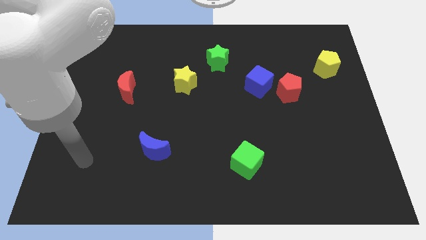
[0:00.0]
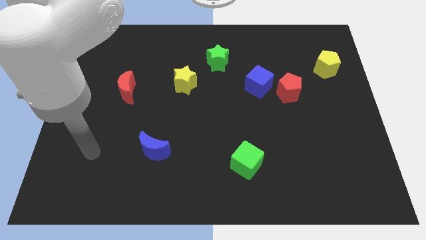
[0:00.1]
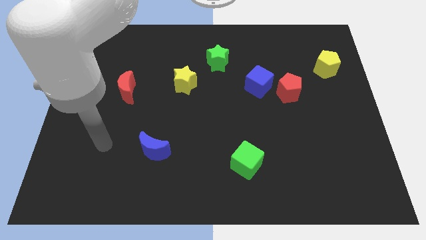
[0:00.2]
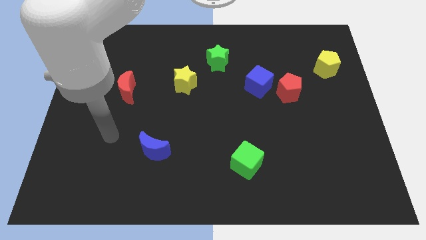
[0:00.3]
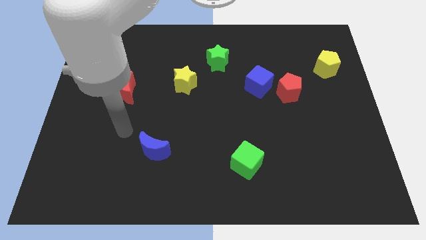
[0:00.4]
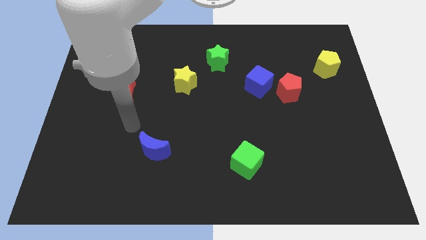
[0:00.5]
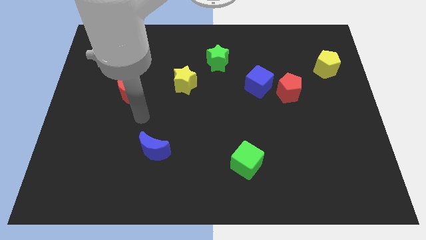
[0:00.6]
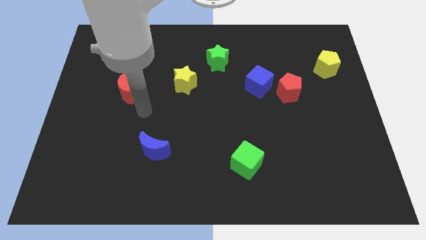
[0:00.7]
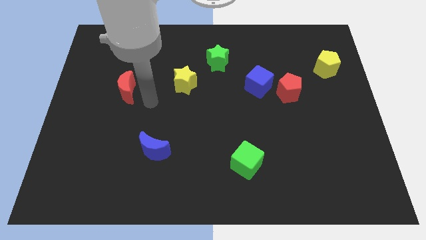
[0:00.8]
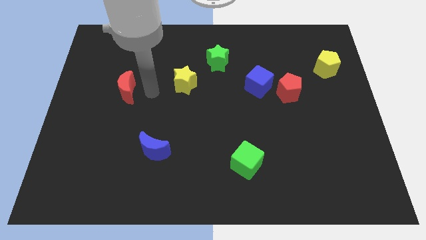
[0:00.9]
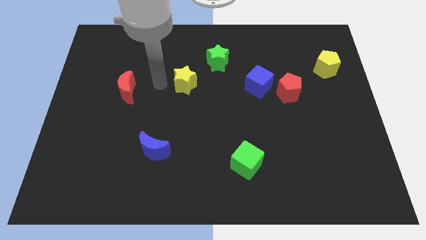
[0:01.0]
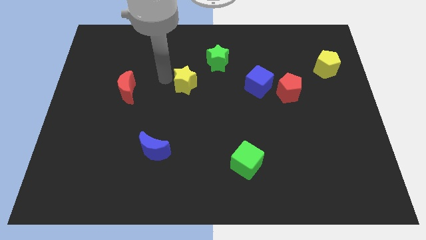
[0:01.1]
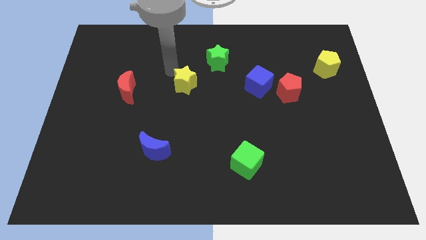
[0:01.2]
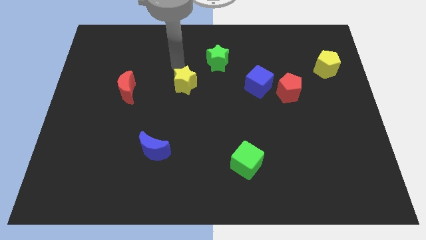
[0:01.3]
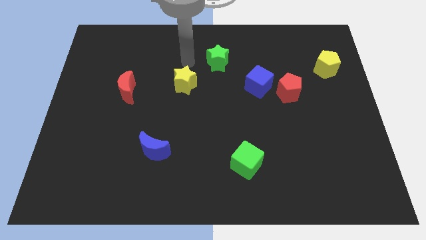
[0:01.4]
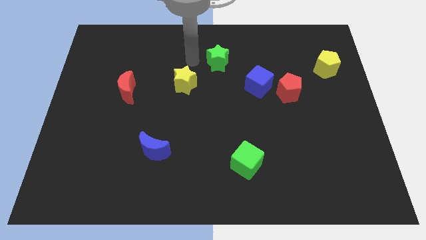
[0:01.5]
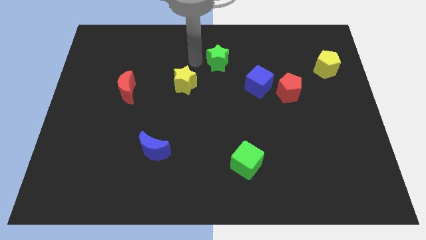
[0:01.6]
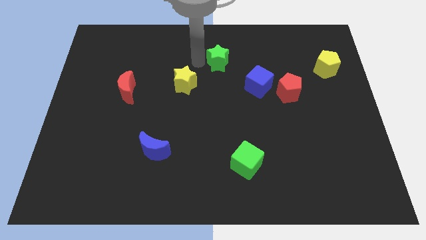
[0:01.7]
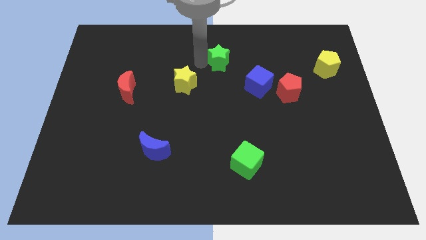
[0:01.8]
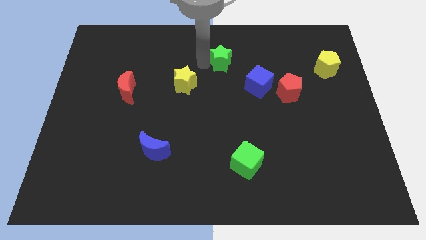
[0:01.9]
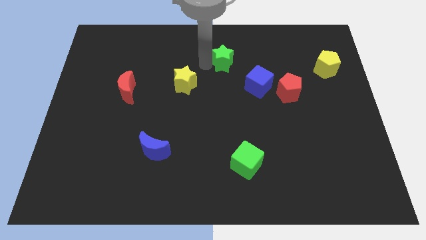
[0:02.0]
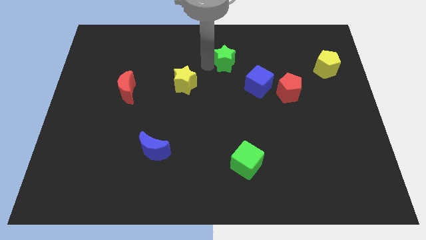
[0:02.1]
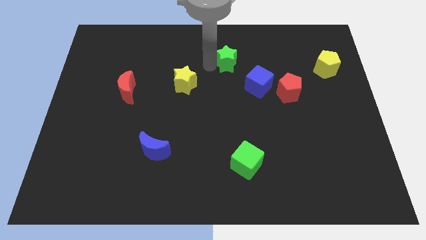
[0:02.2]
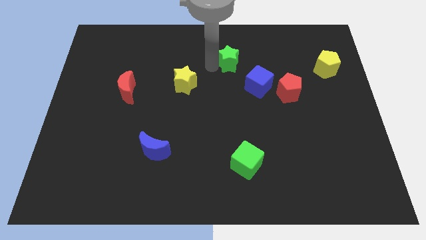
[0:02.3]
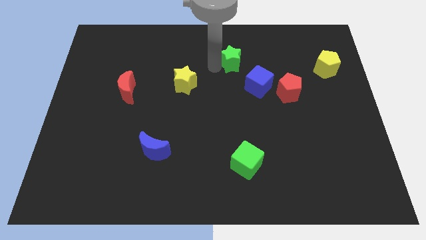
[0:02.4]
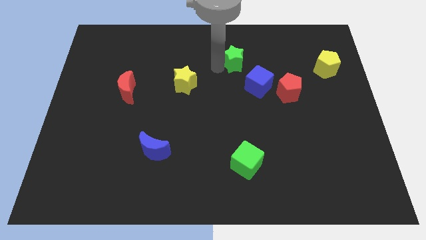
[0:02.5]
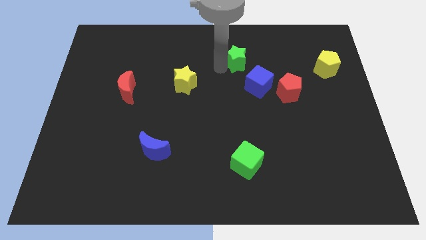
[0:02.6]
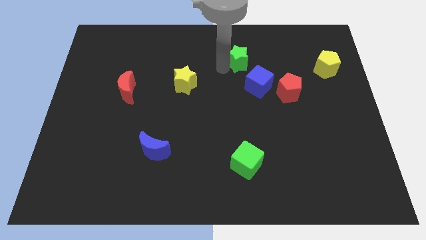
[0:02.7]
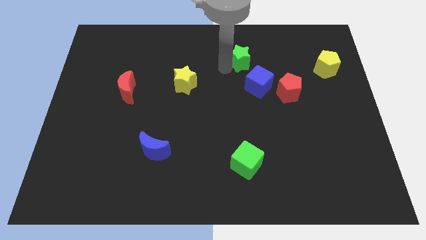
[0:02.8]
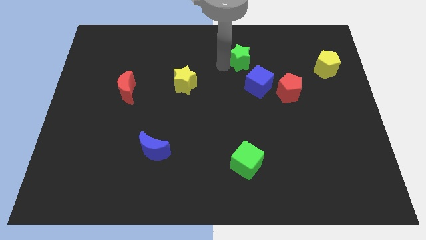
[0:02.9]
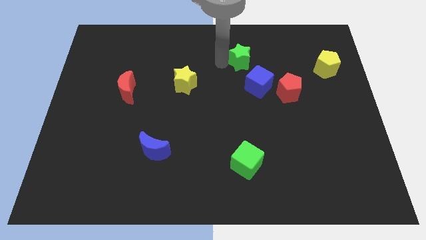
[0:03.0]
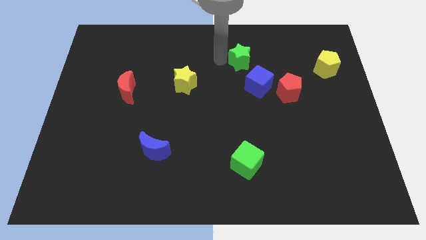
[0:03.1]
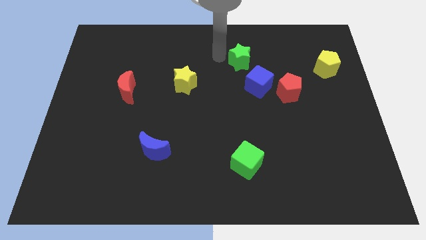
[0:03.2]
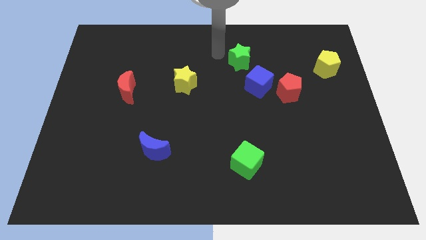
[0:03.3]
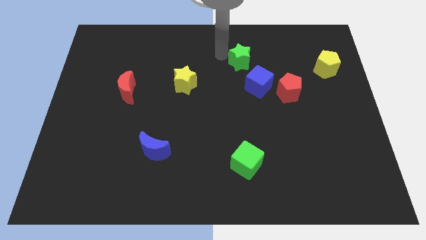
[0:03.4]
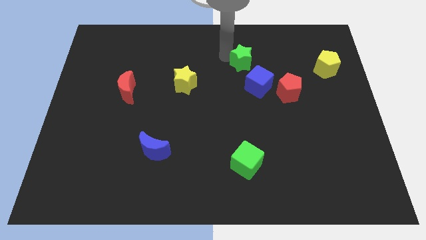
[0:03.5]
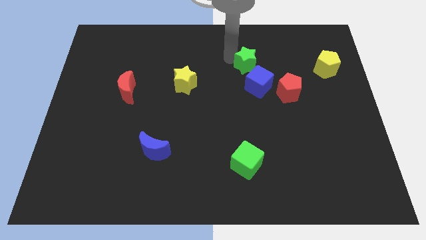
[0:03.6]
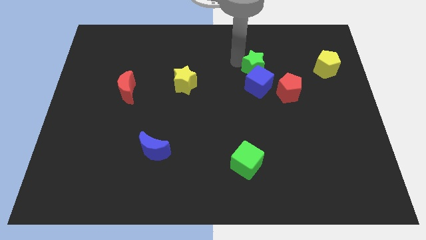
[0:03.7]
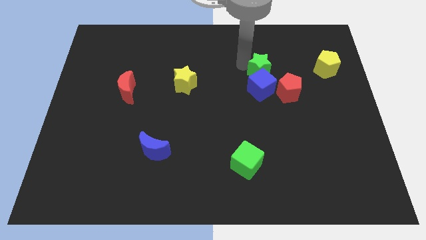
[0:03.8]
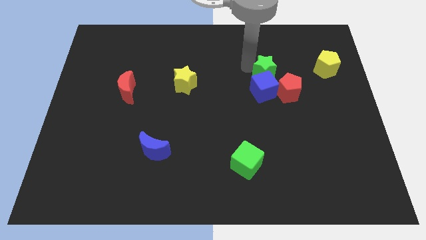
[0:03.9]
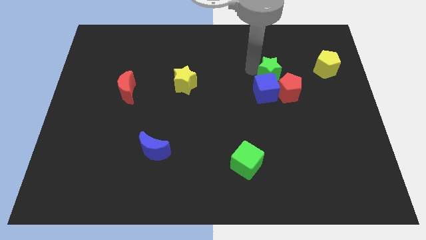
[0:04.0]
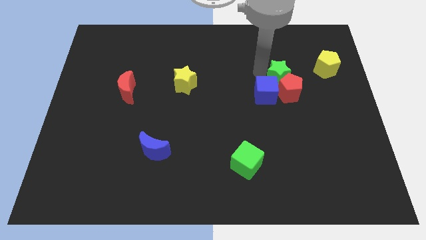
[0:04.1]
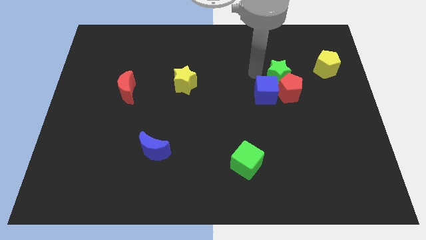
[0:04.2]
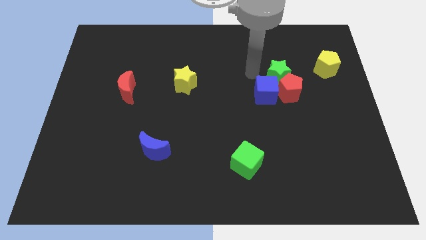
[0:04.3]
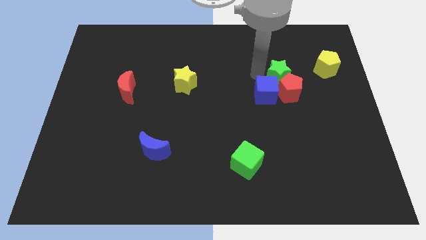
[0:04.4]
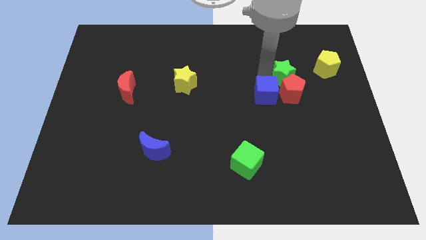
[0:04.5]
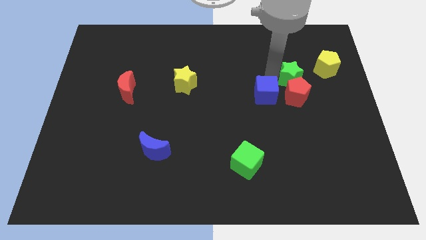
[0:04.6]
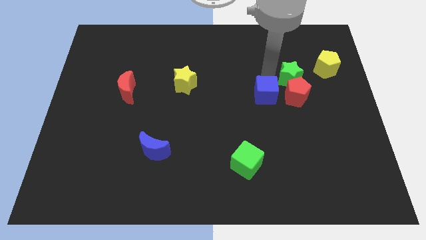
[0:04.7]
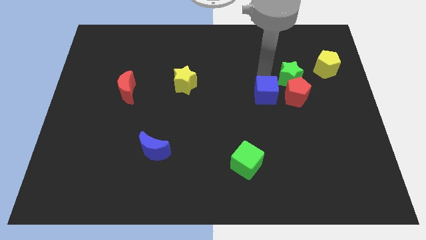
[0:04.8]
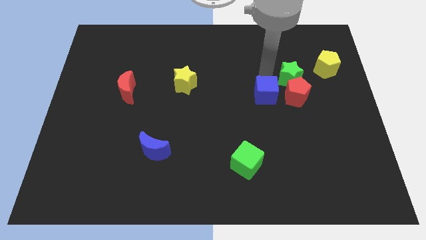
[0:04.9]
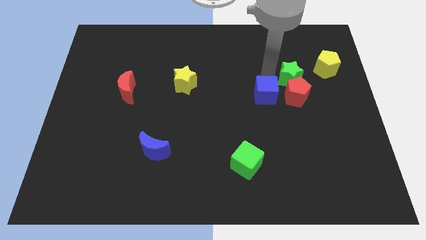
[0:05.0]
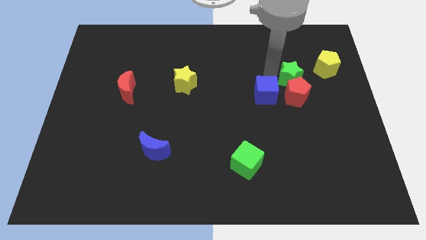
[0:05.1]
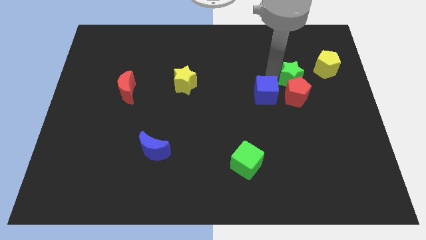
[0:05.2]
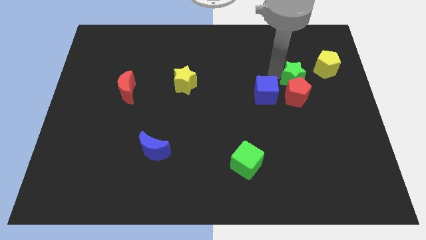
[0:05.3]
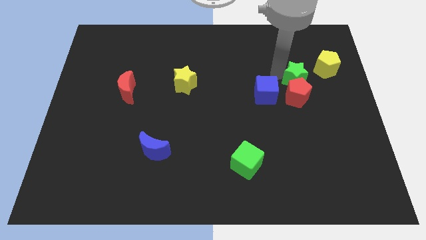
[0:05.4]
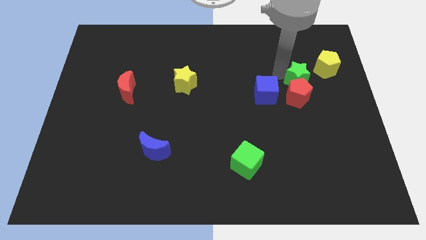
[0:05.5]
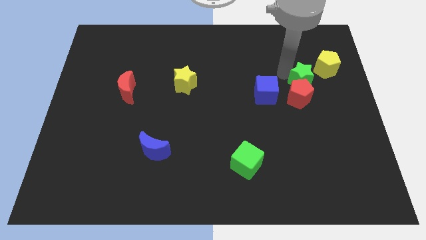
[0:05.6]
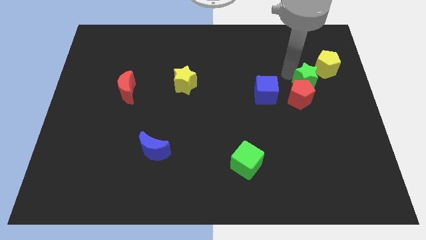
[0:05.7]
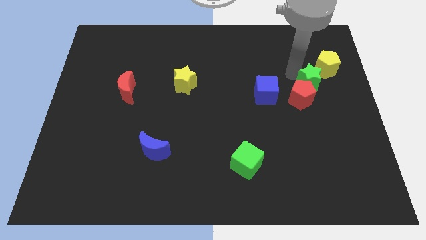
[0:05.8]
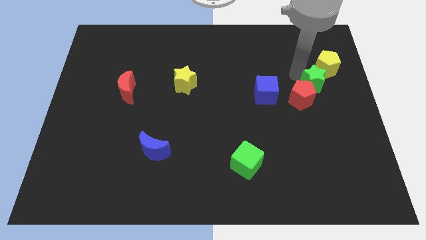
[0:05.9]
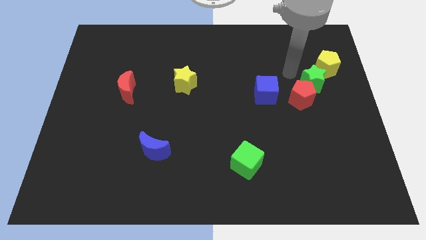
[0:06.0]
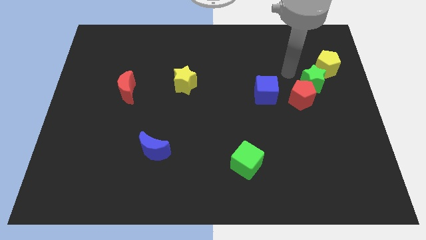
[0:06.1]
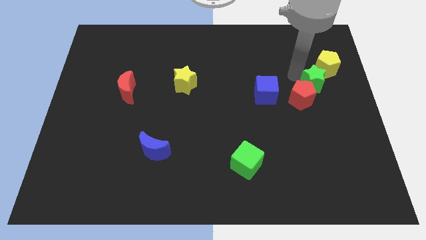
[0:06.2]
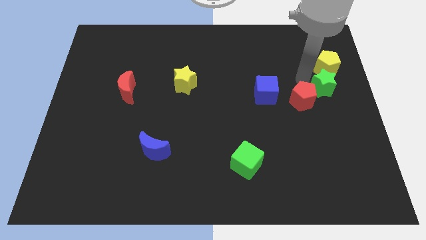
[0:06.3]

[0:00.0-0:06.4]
move the green star to the right of the red pentagon
